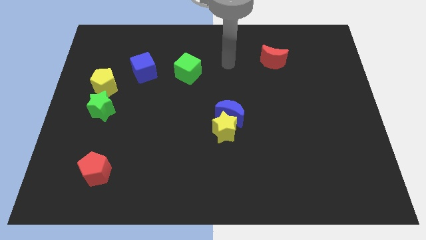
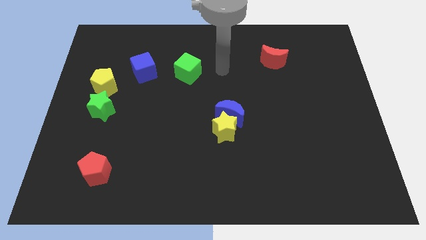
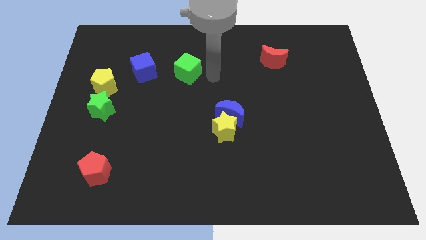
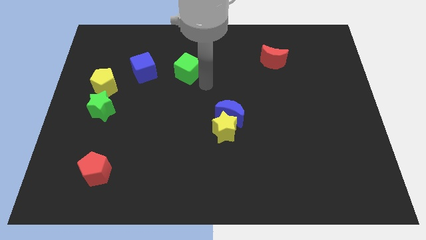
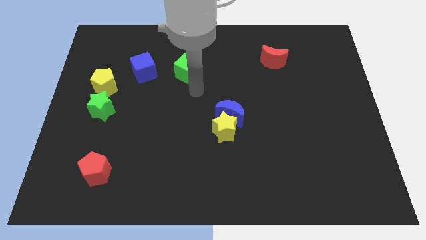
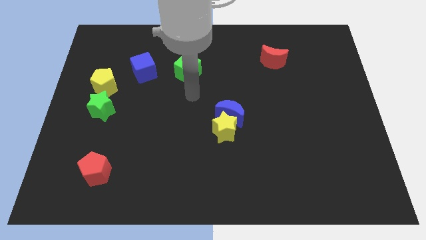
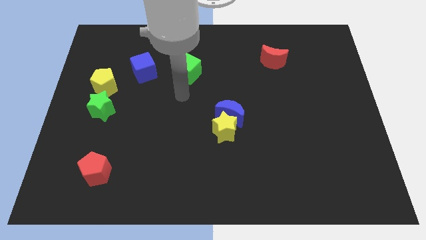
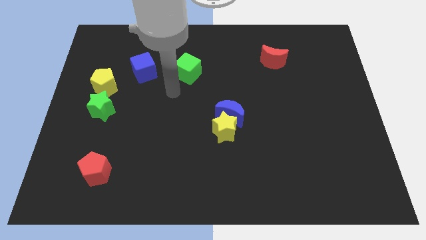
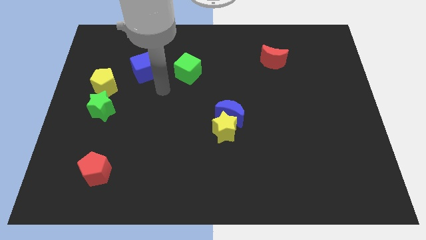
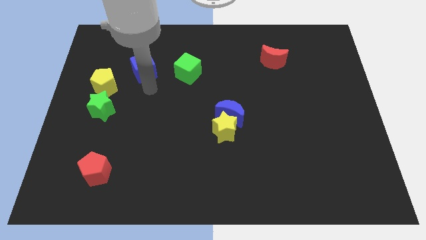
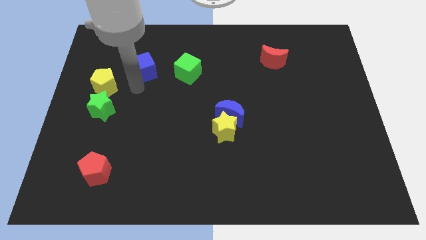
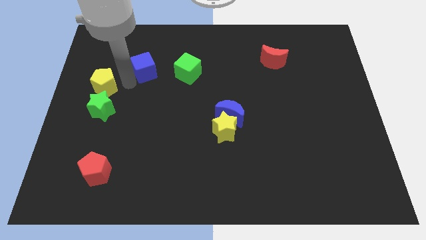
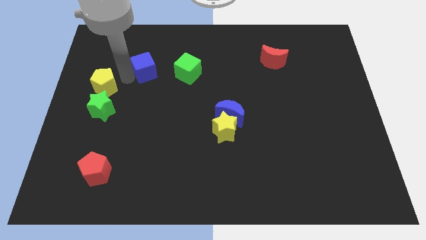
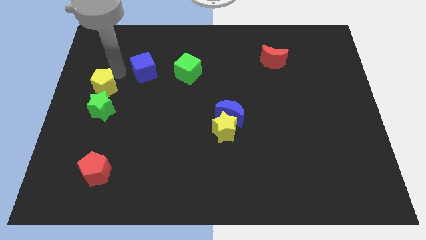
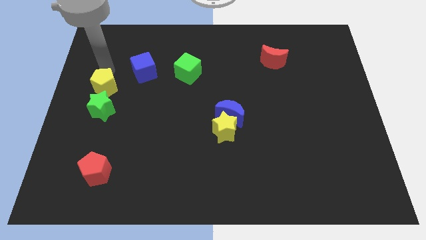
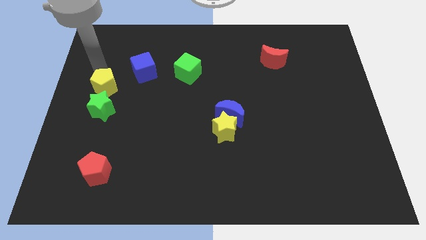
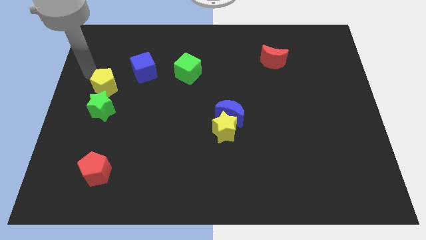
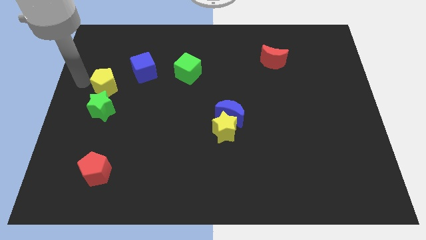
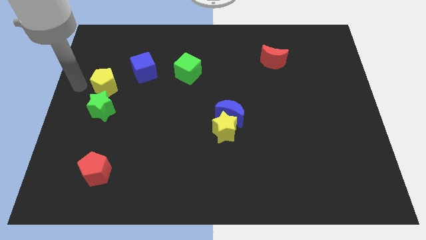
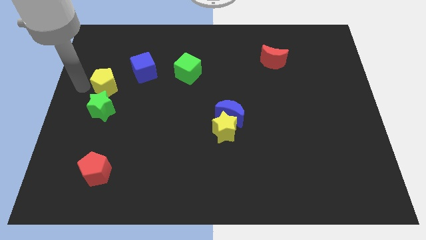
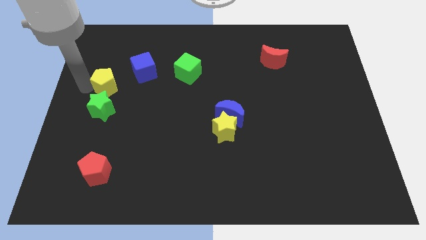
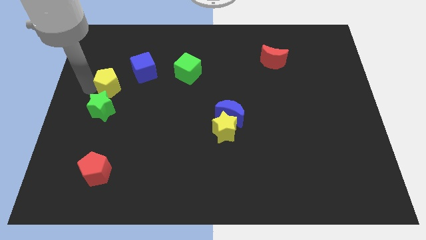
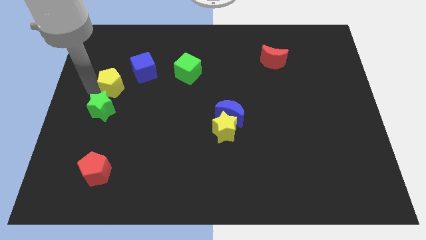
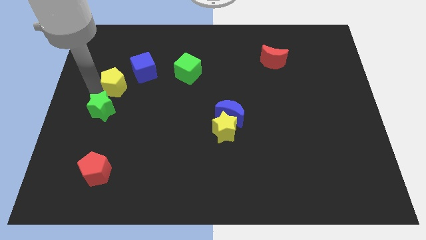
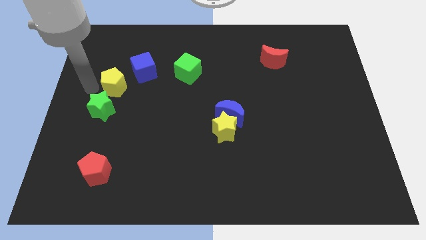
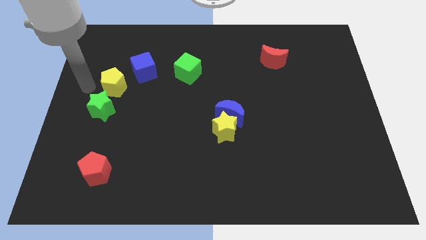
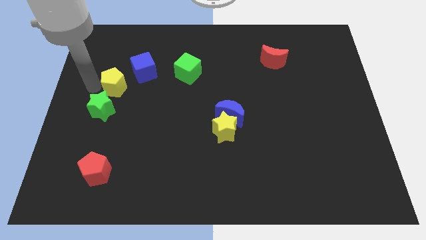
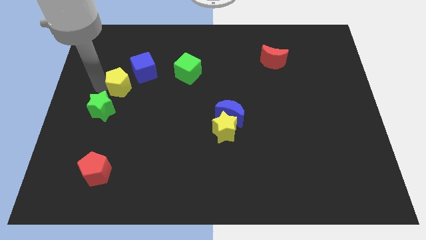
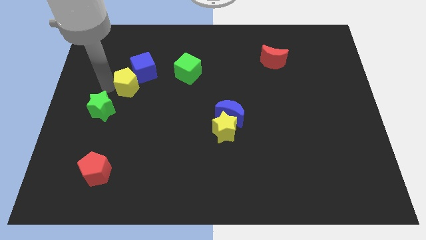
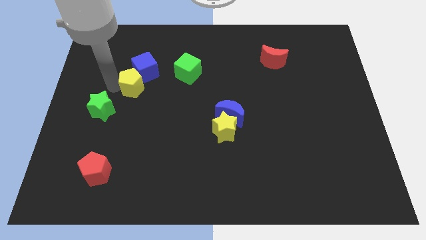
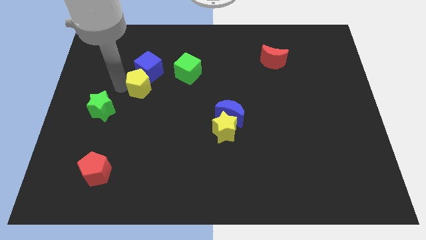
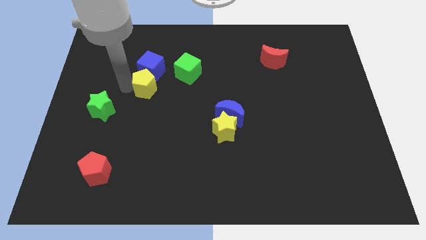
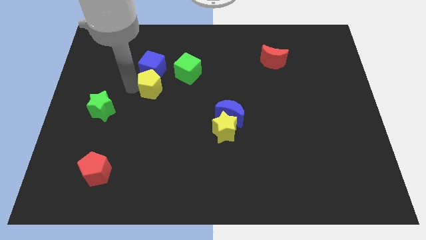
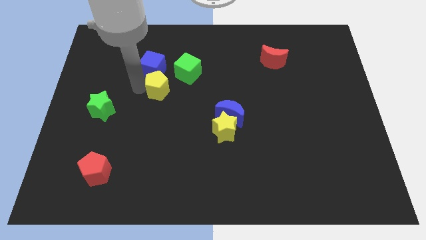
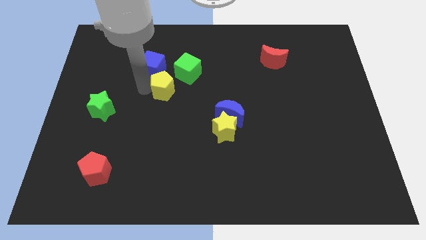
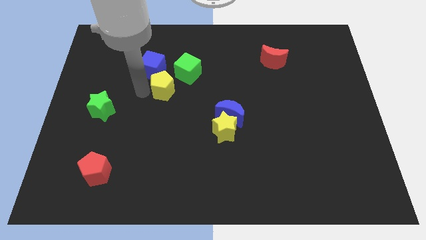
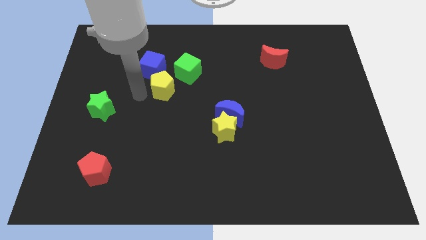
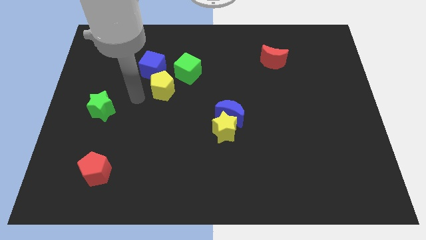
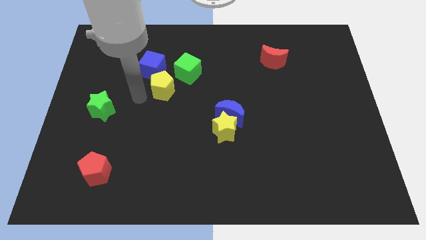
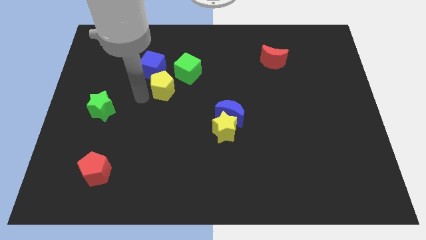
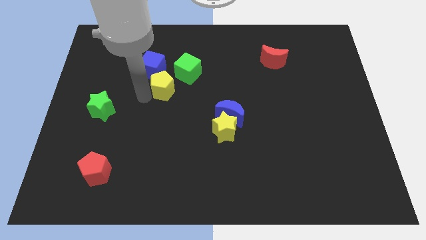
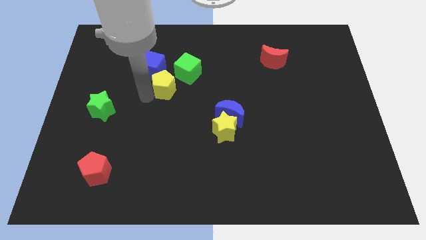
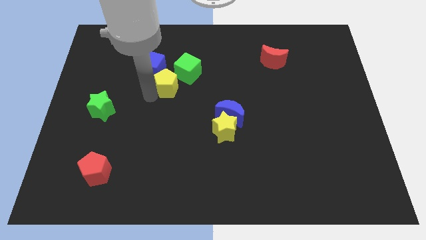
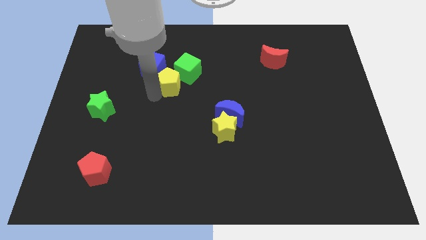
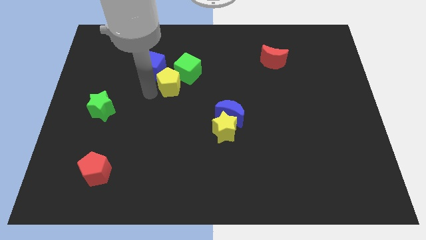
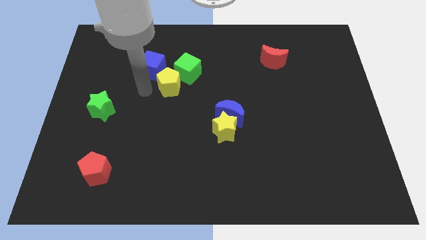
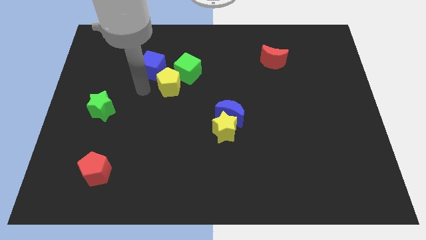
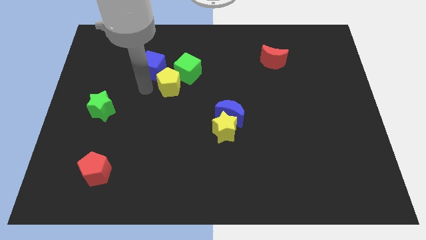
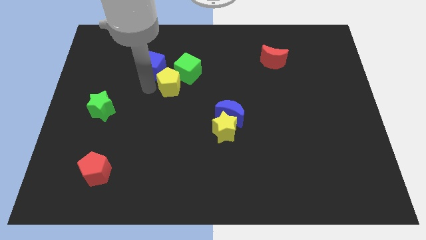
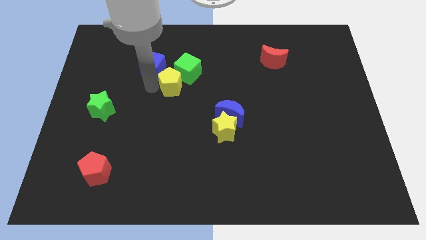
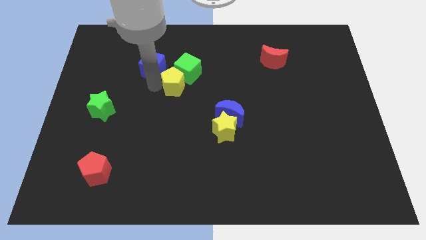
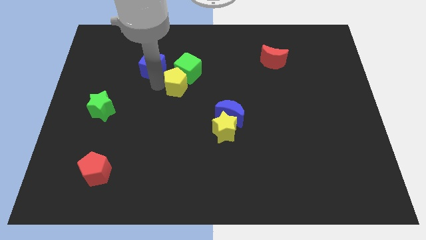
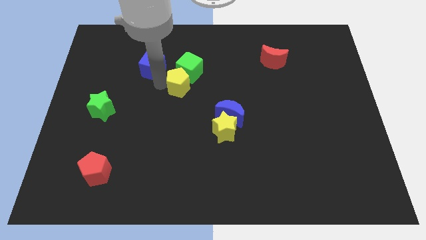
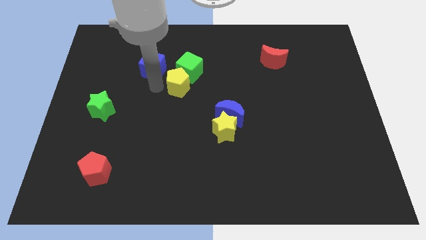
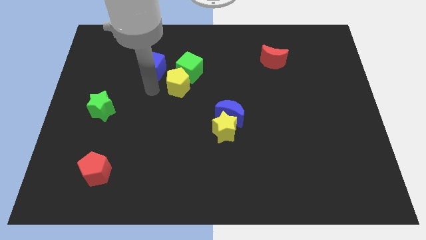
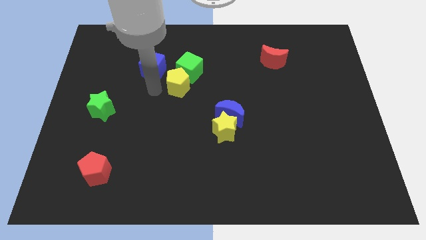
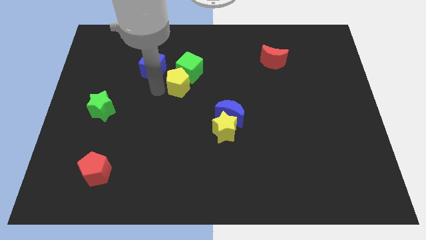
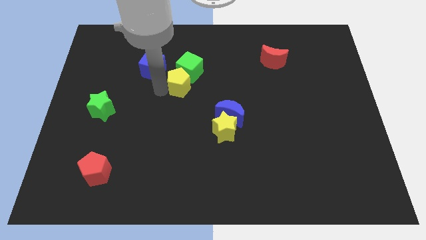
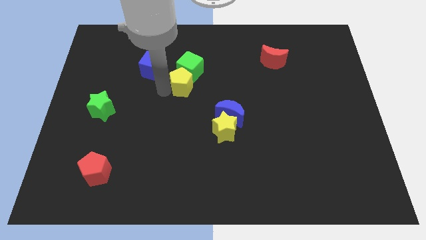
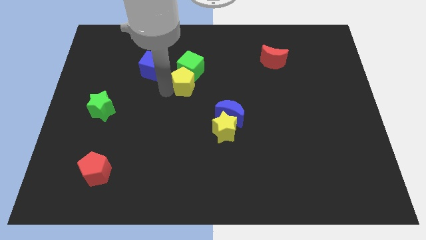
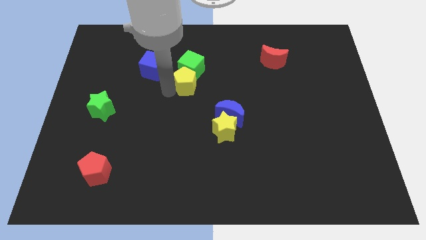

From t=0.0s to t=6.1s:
push the yellow pentagon to the right

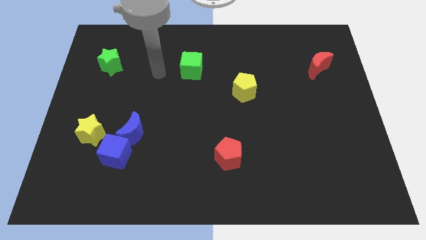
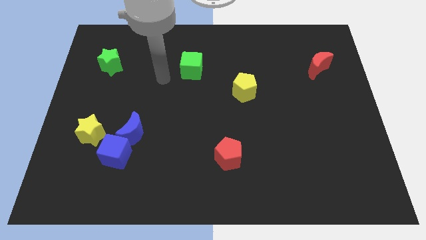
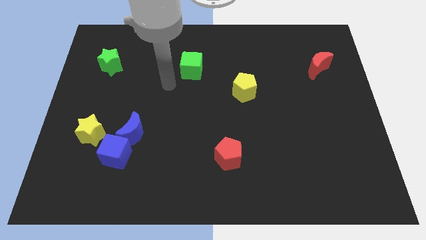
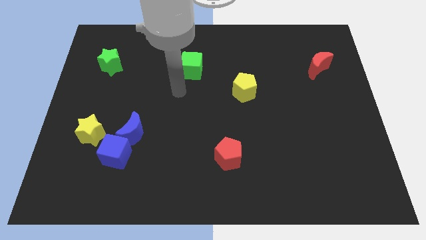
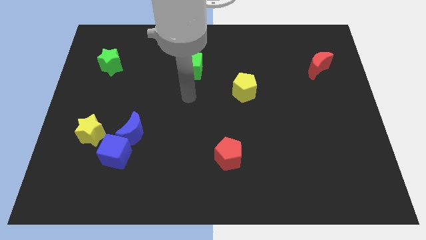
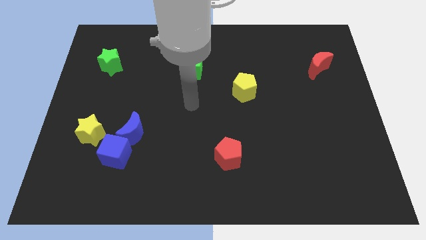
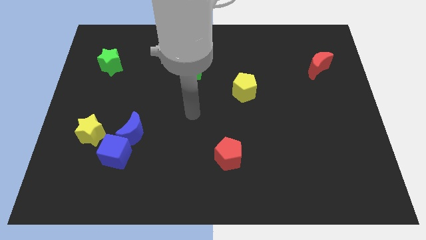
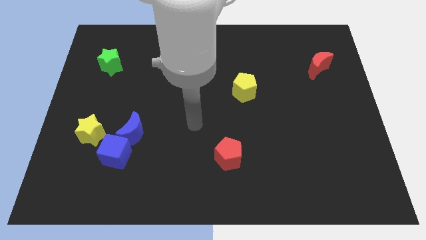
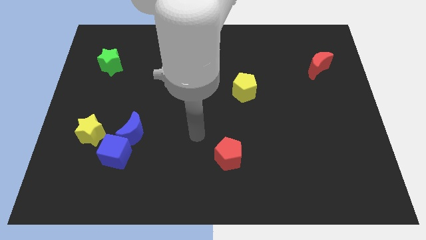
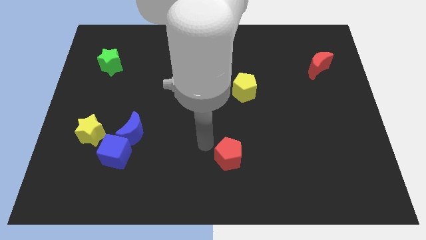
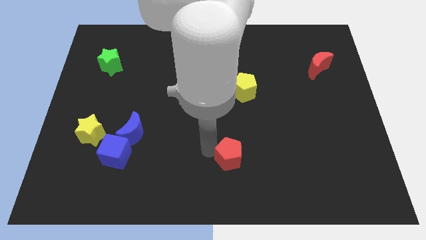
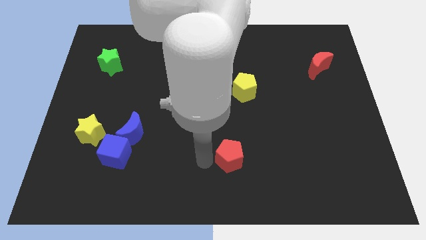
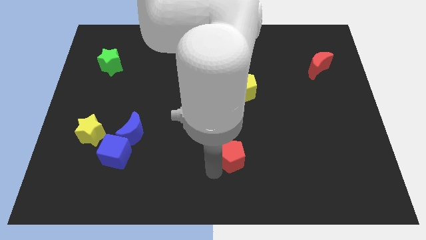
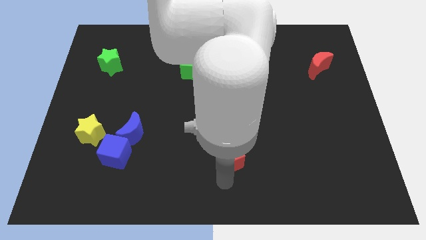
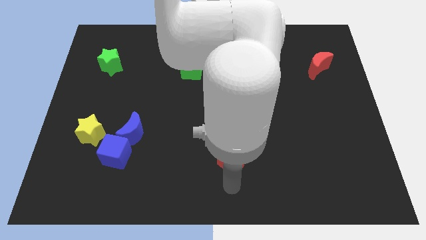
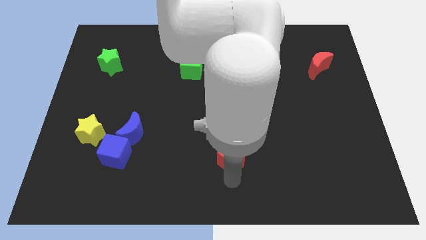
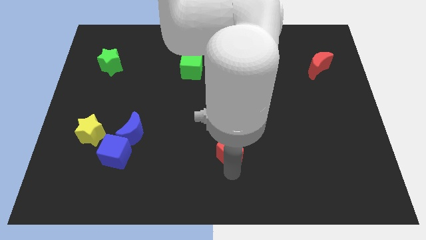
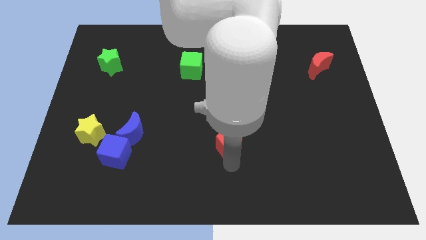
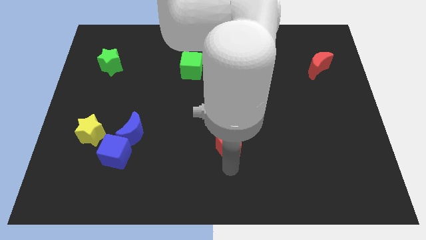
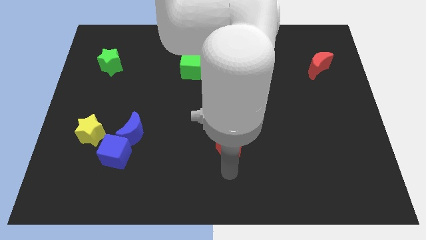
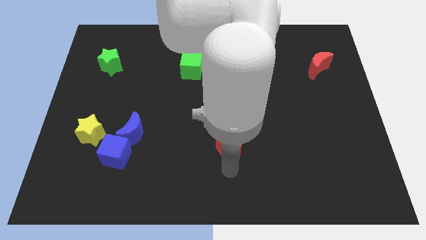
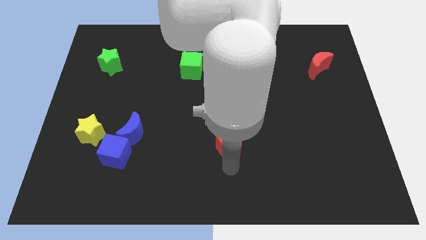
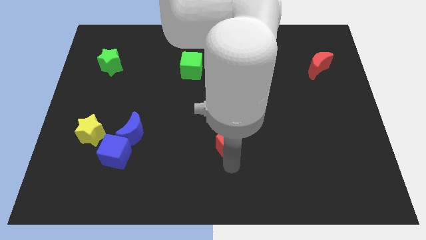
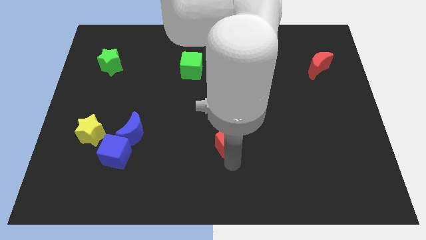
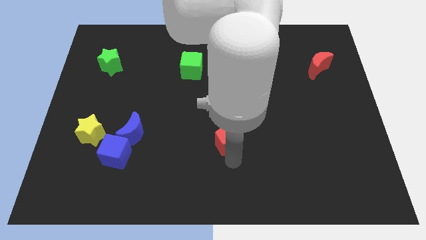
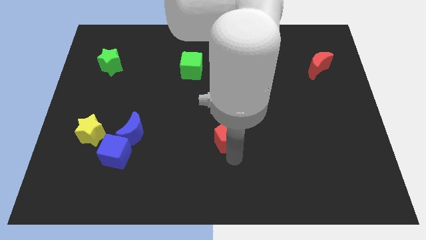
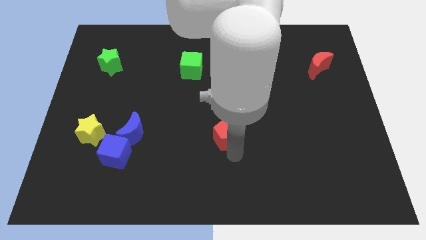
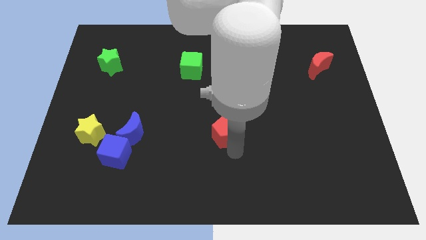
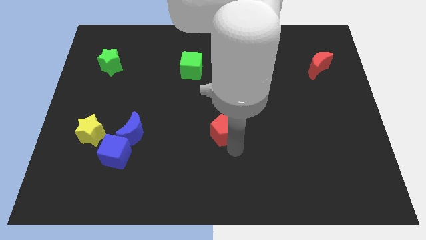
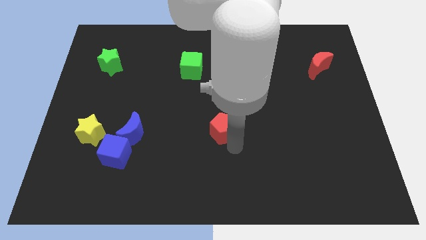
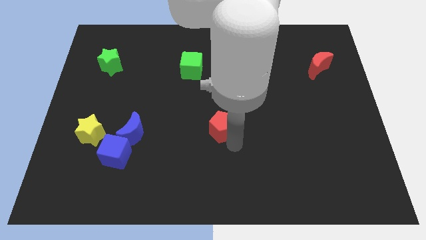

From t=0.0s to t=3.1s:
slightly push the red pentagon up
